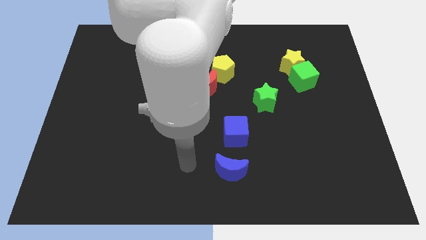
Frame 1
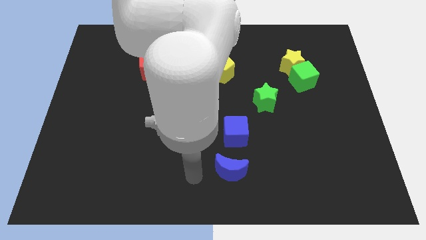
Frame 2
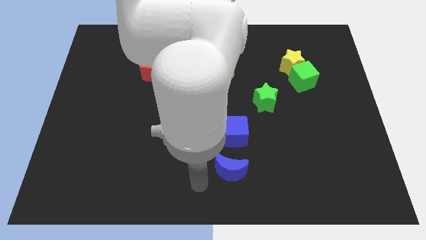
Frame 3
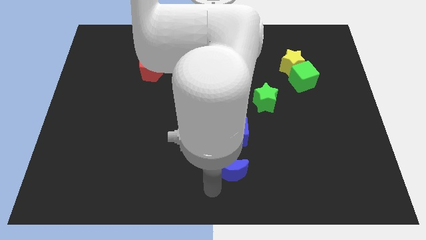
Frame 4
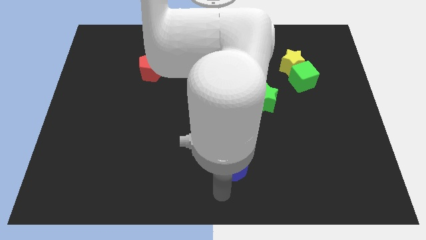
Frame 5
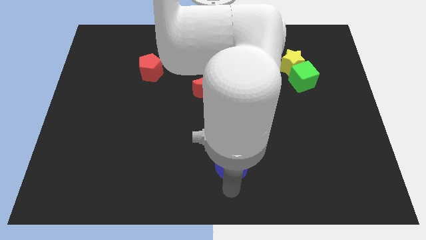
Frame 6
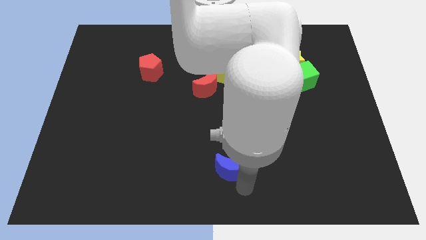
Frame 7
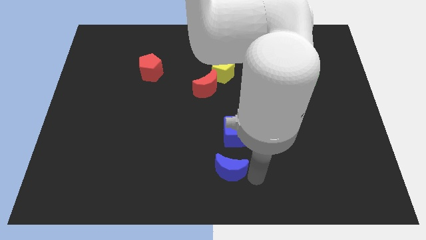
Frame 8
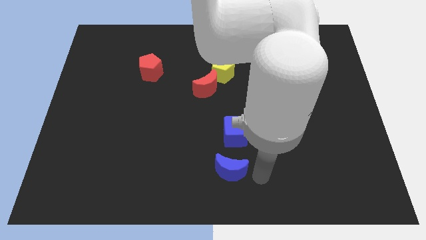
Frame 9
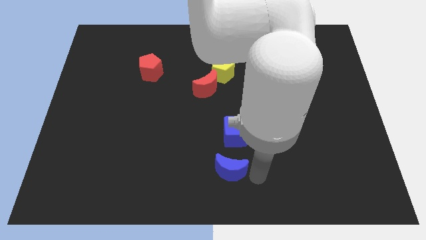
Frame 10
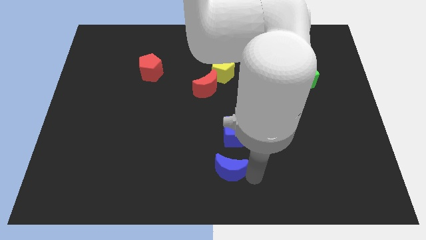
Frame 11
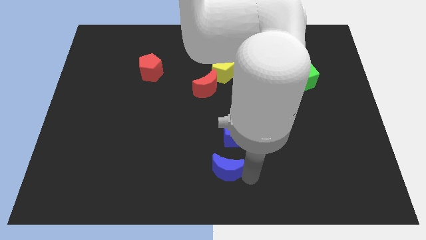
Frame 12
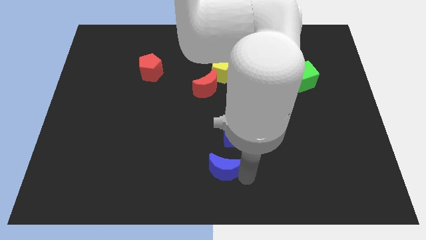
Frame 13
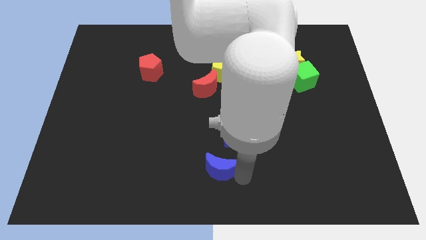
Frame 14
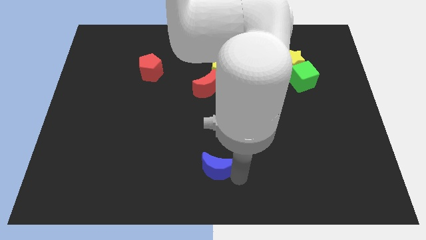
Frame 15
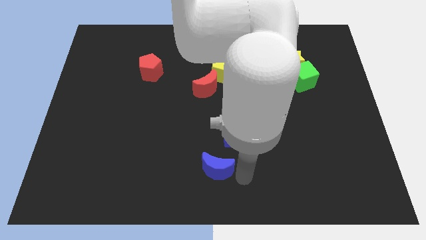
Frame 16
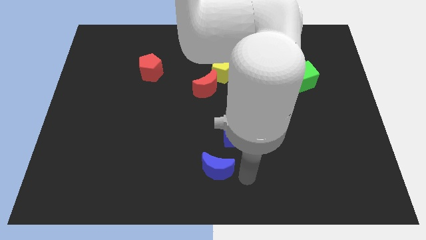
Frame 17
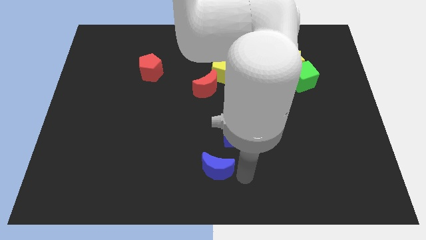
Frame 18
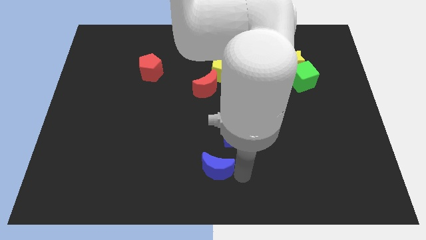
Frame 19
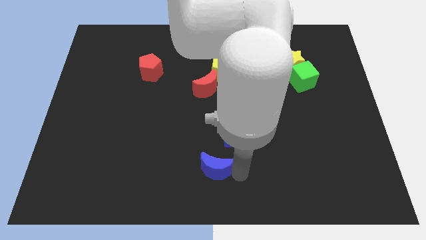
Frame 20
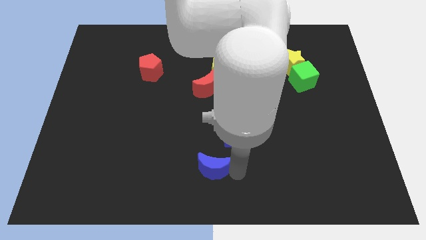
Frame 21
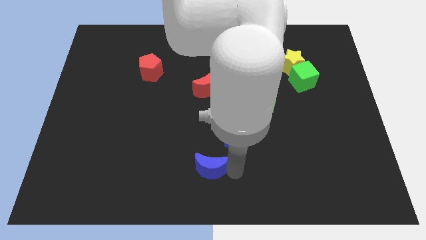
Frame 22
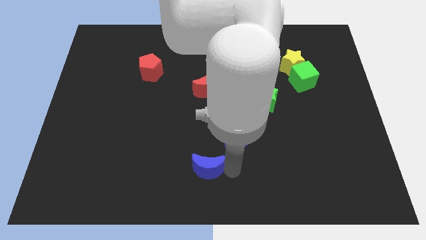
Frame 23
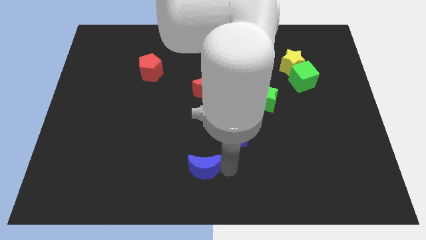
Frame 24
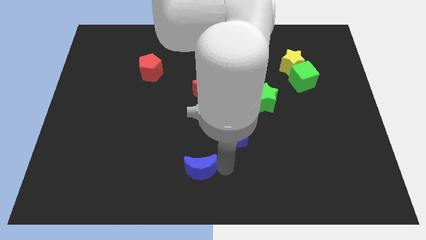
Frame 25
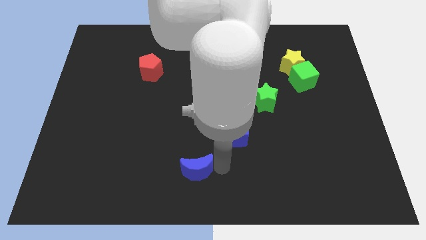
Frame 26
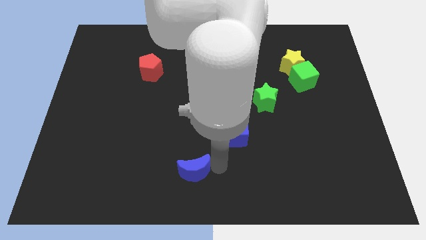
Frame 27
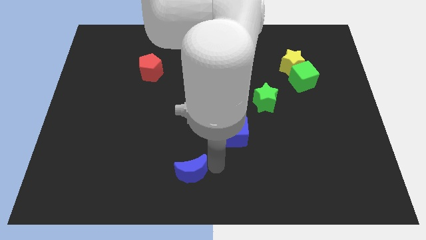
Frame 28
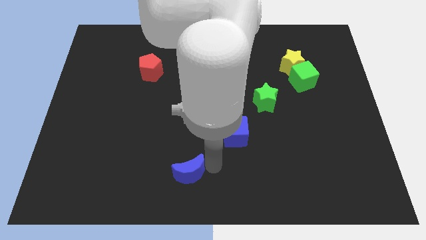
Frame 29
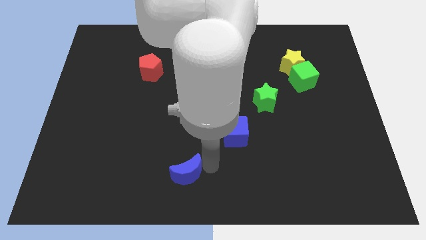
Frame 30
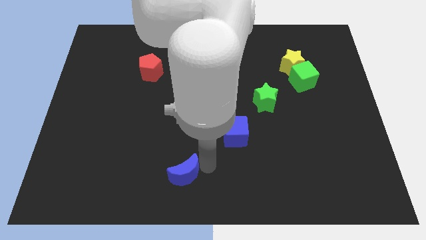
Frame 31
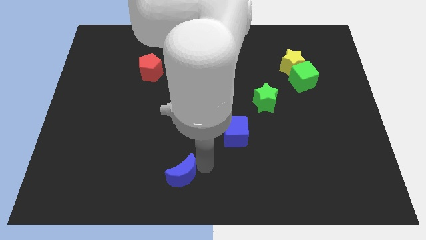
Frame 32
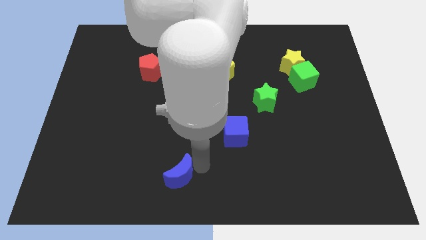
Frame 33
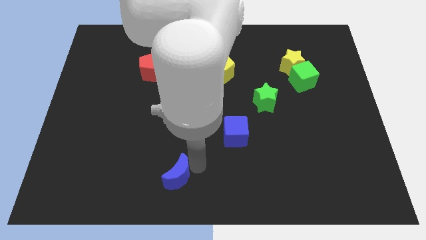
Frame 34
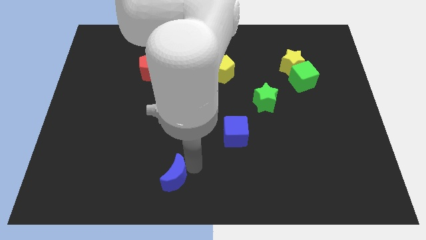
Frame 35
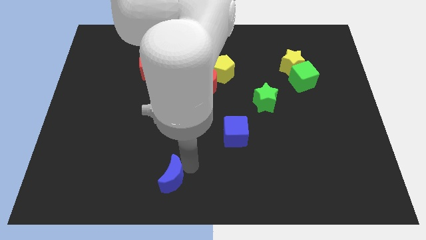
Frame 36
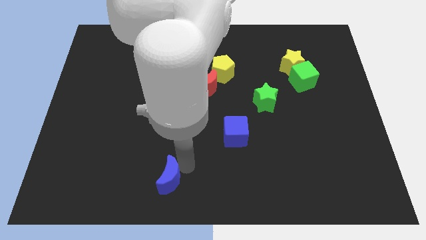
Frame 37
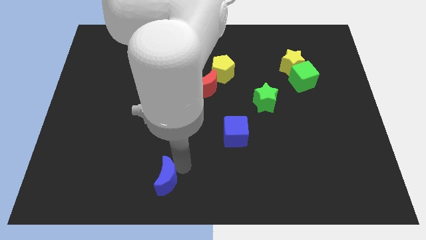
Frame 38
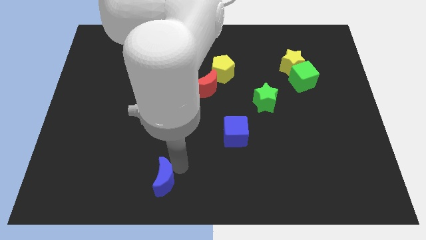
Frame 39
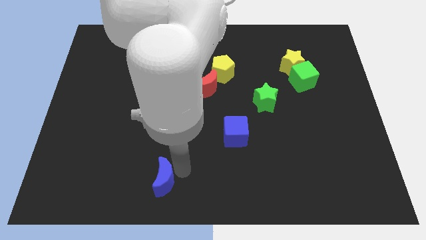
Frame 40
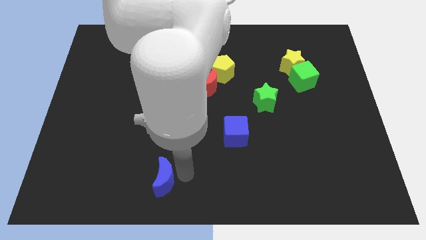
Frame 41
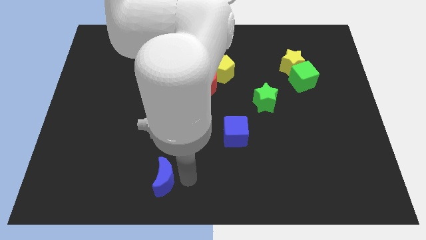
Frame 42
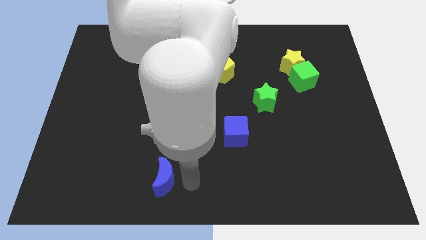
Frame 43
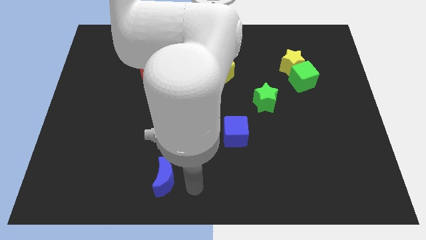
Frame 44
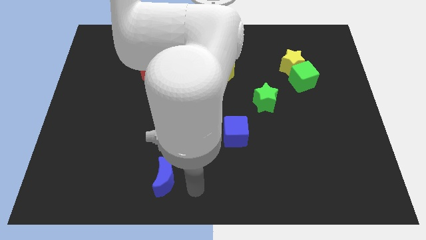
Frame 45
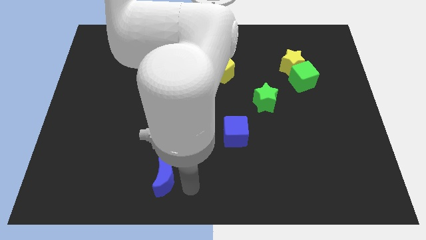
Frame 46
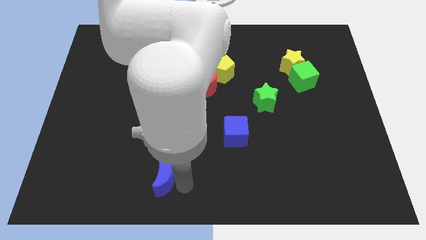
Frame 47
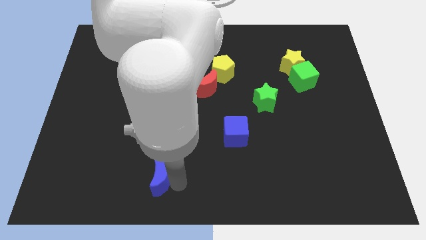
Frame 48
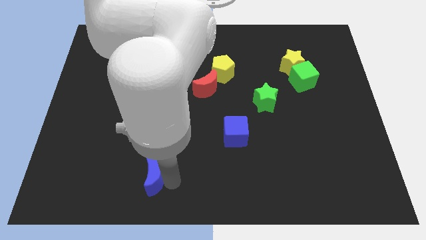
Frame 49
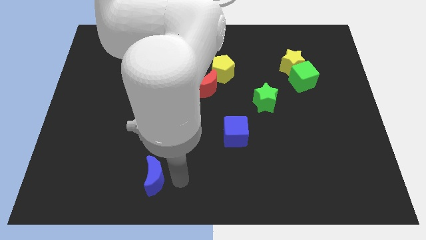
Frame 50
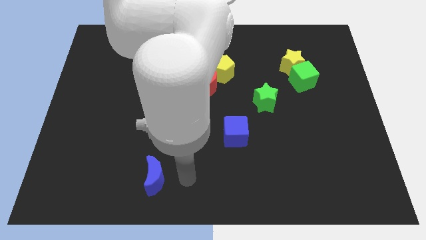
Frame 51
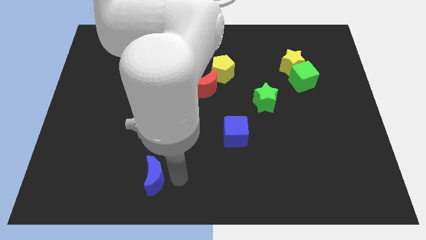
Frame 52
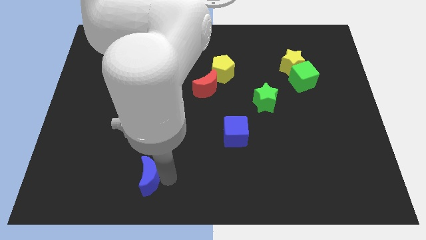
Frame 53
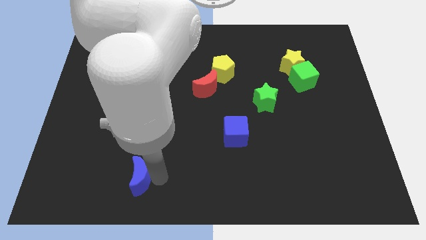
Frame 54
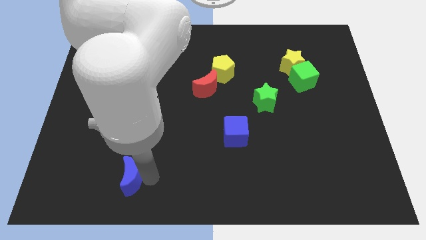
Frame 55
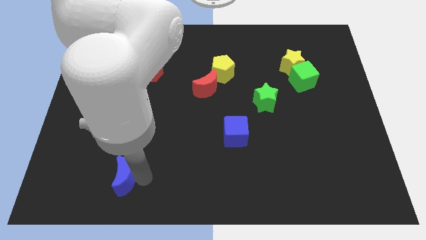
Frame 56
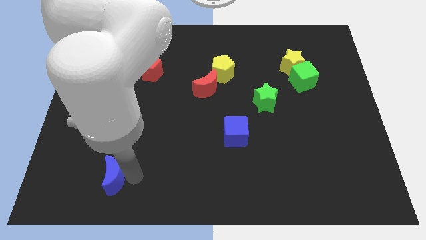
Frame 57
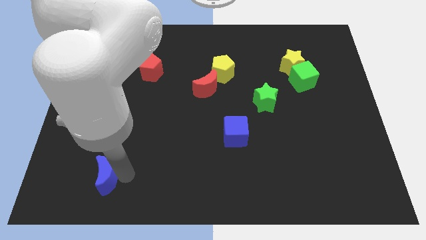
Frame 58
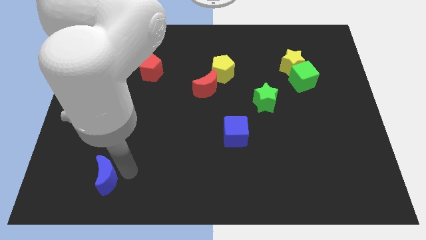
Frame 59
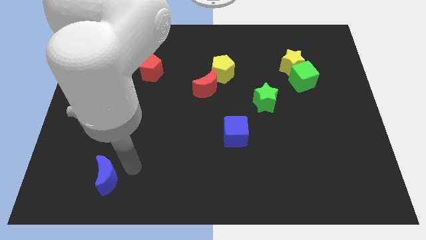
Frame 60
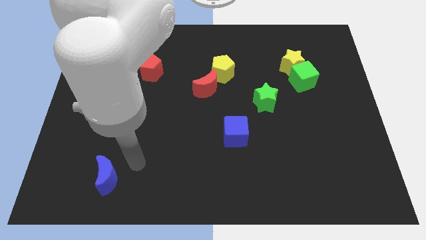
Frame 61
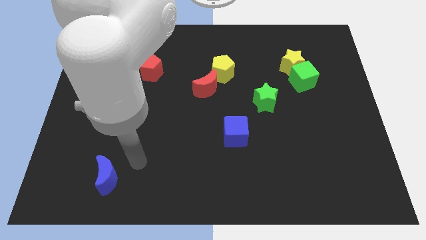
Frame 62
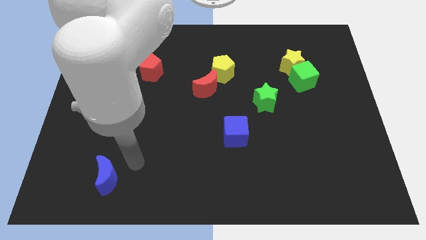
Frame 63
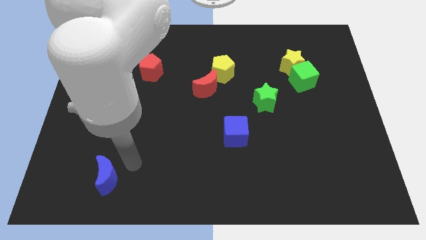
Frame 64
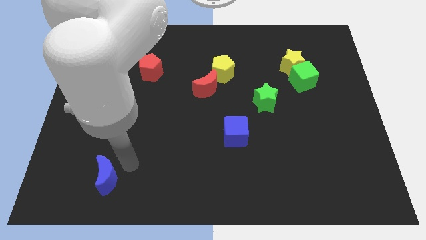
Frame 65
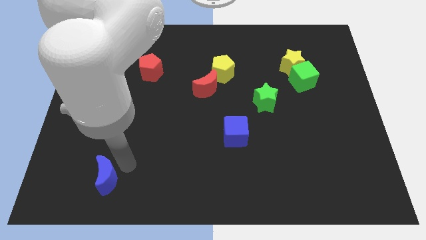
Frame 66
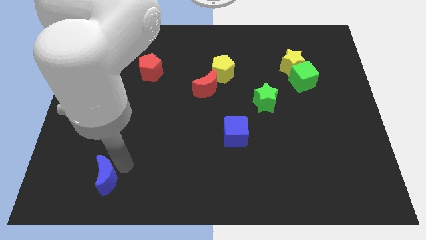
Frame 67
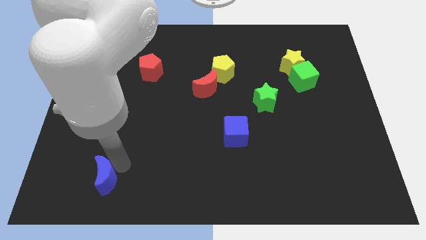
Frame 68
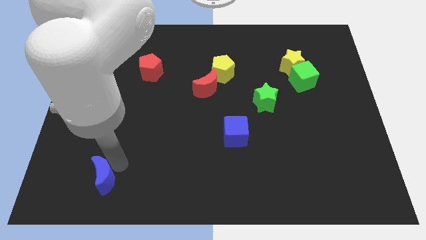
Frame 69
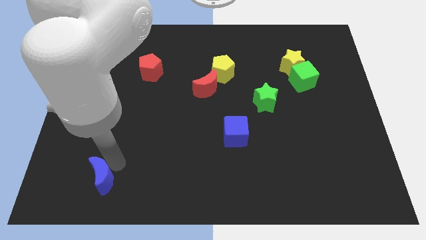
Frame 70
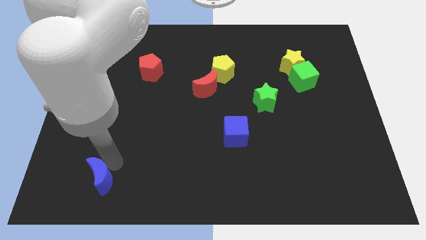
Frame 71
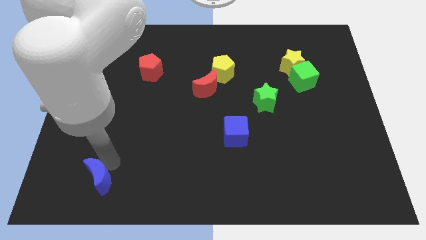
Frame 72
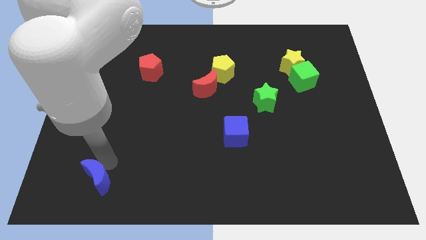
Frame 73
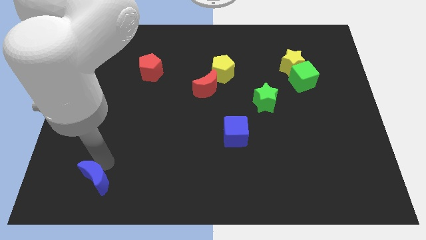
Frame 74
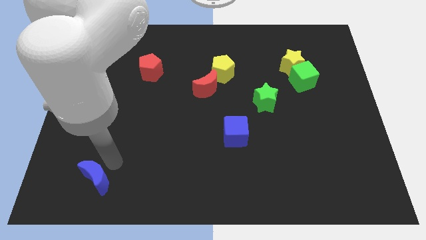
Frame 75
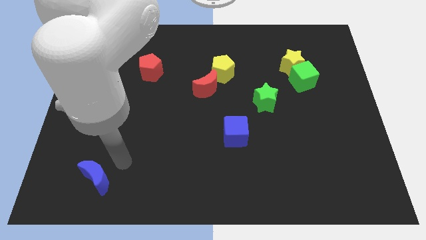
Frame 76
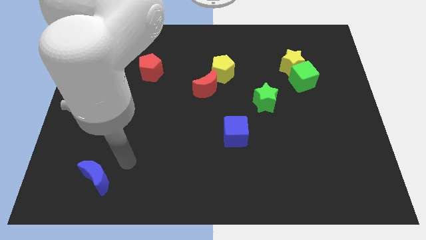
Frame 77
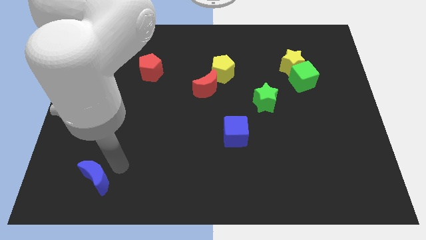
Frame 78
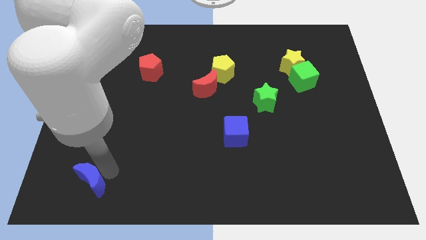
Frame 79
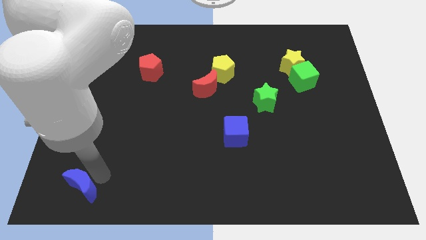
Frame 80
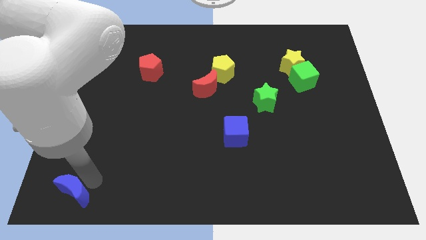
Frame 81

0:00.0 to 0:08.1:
push the blue moon to the bottom left
